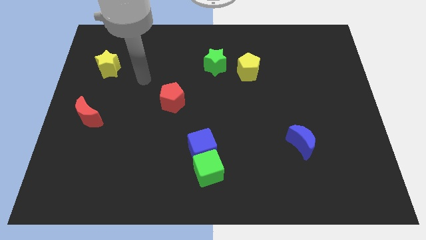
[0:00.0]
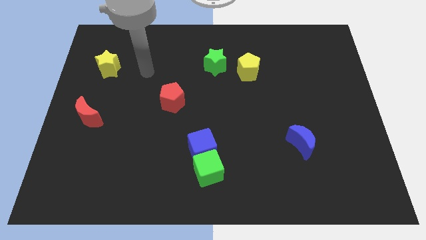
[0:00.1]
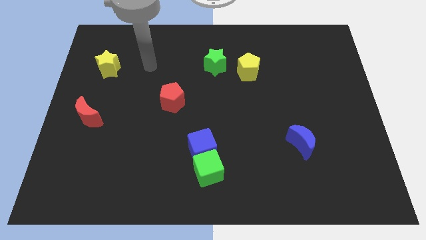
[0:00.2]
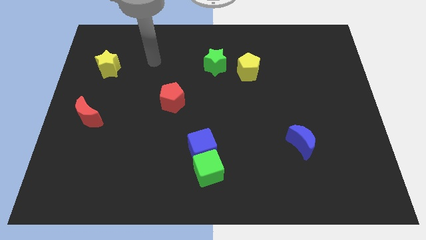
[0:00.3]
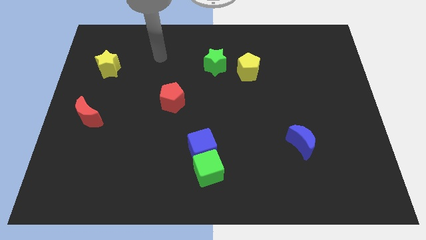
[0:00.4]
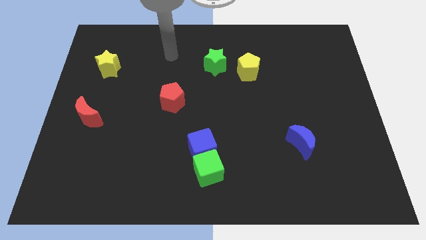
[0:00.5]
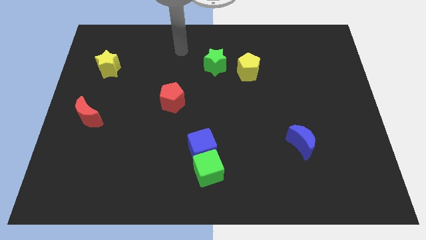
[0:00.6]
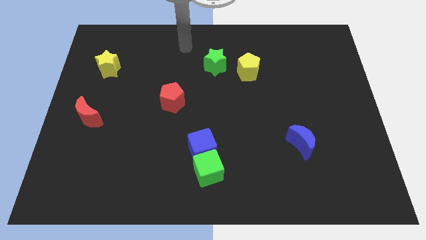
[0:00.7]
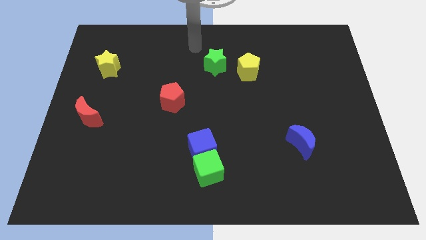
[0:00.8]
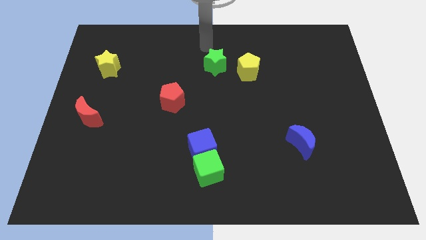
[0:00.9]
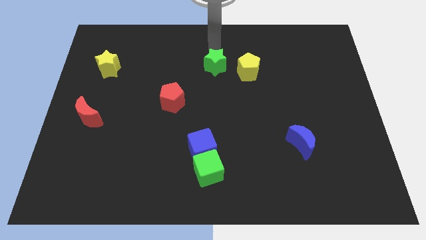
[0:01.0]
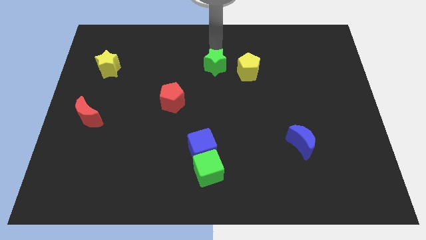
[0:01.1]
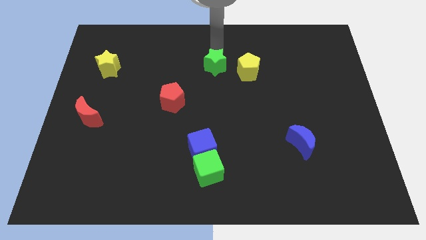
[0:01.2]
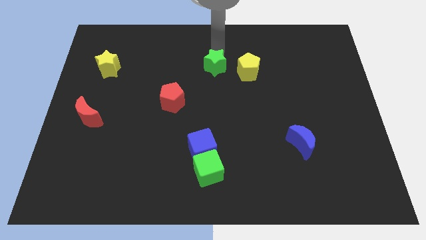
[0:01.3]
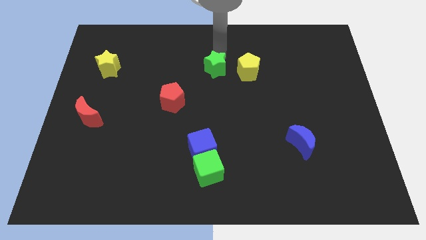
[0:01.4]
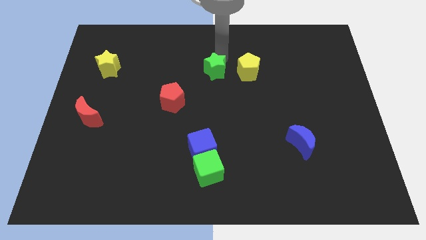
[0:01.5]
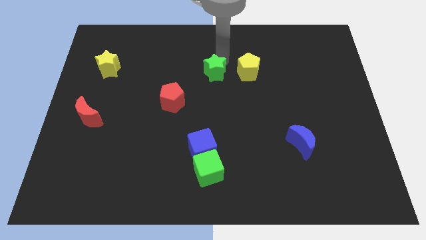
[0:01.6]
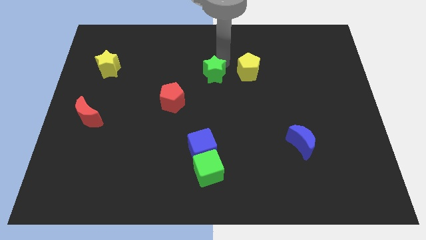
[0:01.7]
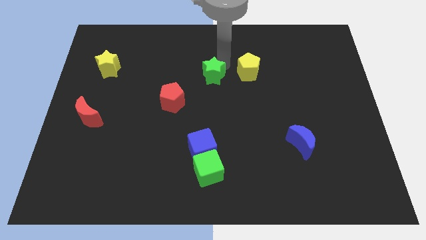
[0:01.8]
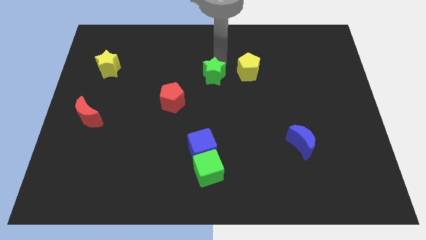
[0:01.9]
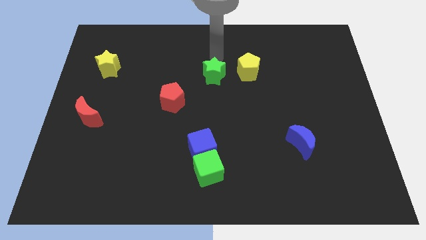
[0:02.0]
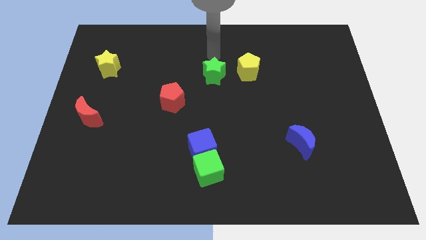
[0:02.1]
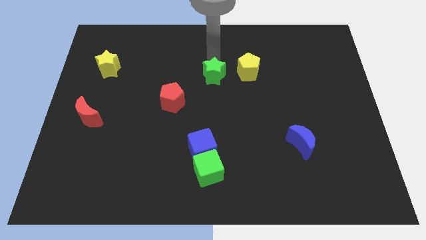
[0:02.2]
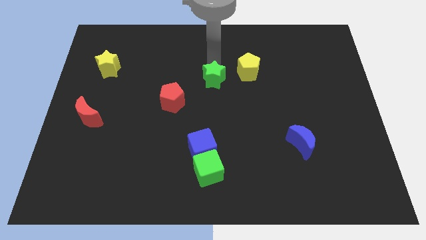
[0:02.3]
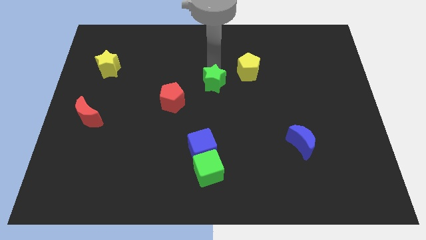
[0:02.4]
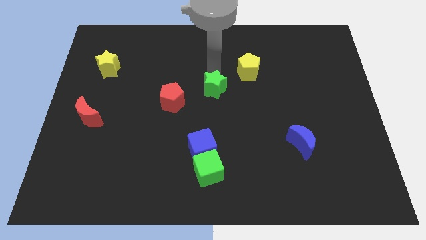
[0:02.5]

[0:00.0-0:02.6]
push the green star a little downwards

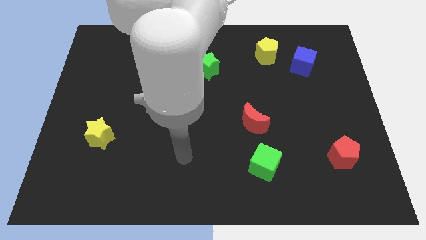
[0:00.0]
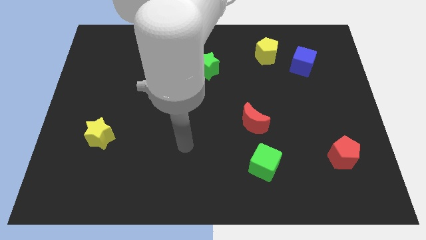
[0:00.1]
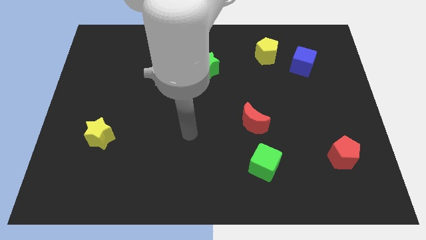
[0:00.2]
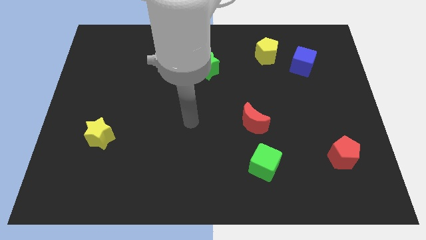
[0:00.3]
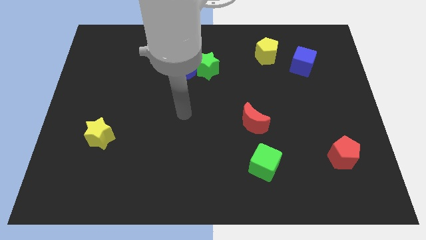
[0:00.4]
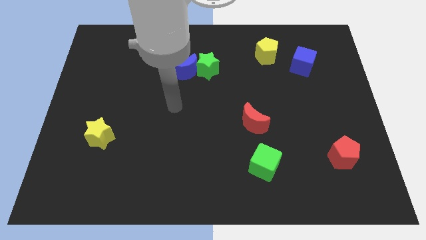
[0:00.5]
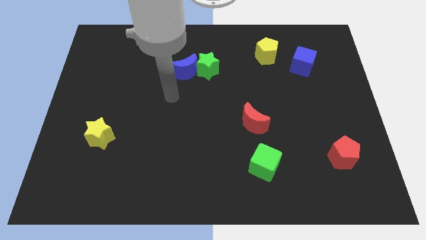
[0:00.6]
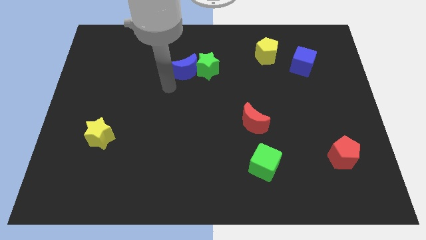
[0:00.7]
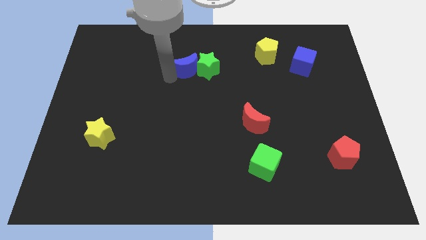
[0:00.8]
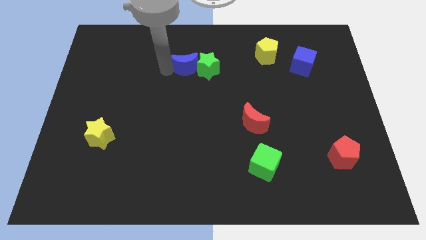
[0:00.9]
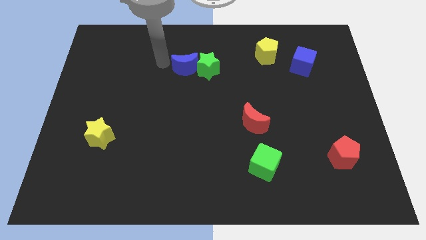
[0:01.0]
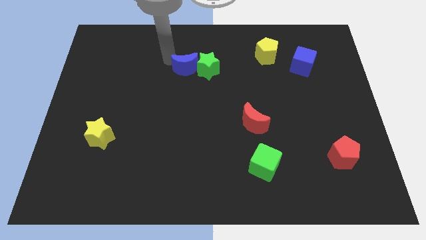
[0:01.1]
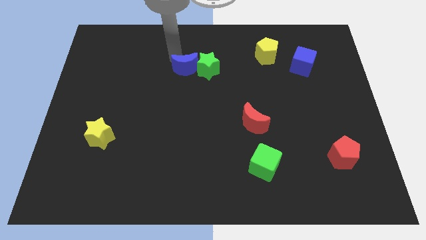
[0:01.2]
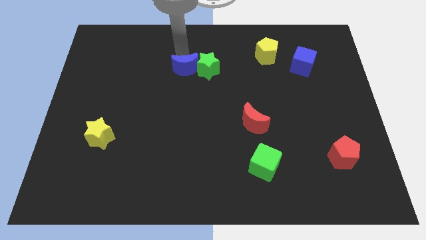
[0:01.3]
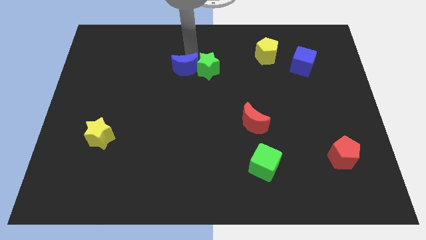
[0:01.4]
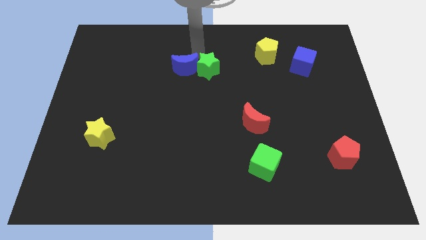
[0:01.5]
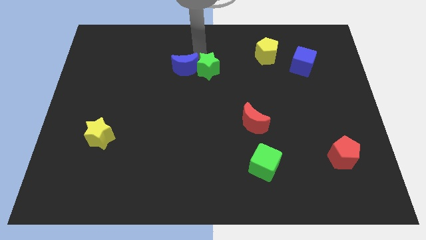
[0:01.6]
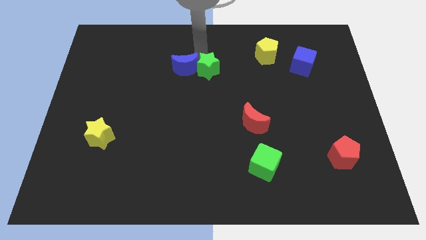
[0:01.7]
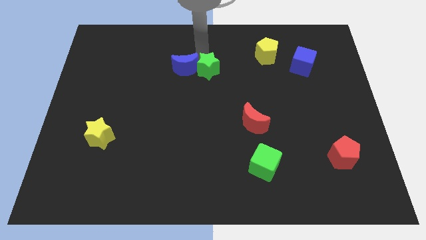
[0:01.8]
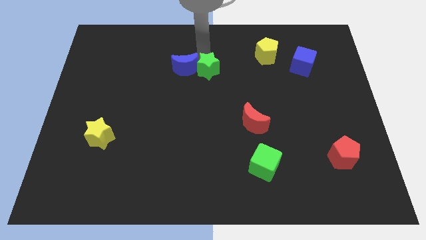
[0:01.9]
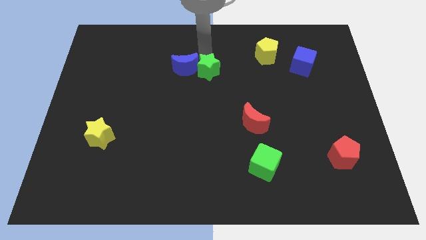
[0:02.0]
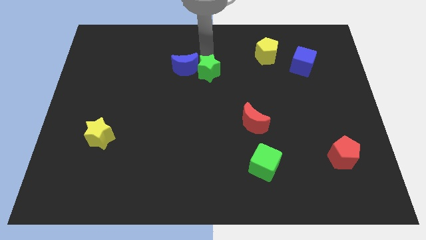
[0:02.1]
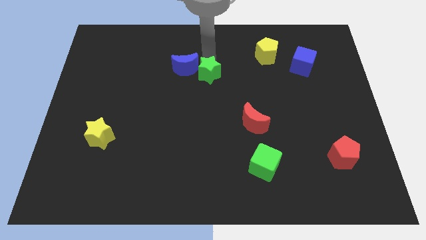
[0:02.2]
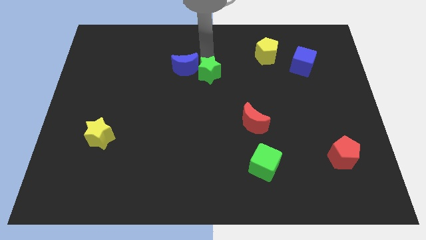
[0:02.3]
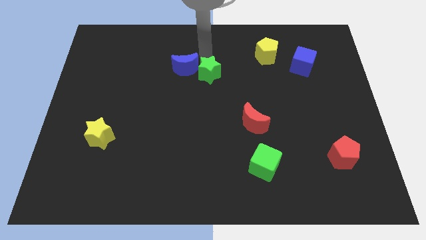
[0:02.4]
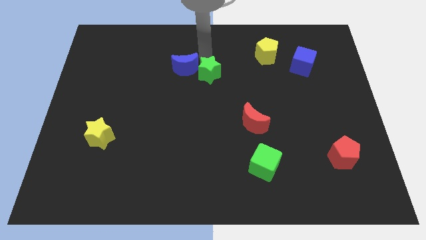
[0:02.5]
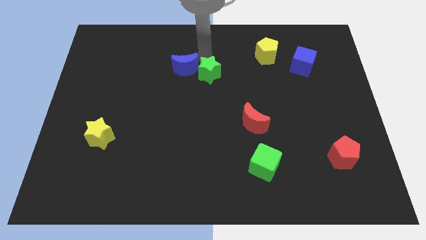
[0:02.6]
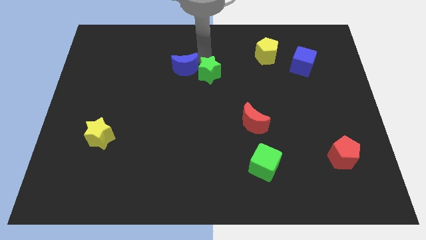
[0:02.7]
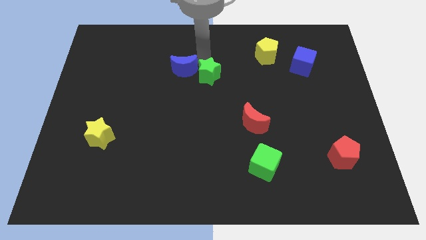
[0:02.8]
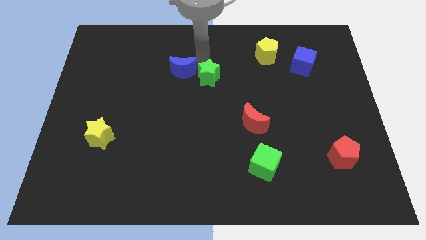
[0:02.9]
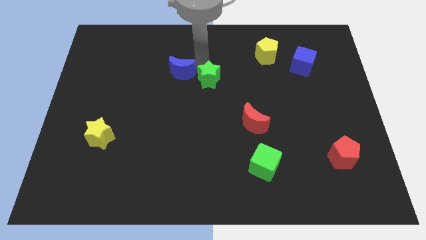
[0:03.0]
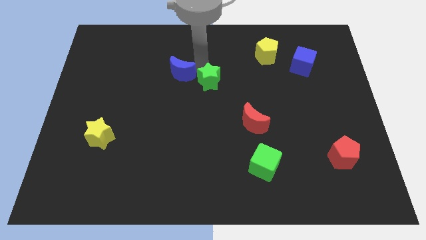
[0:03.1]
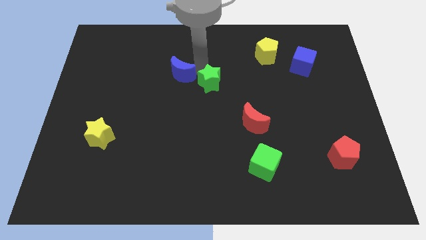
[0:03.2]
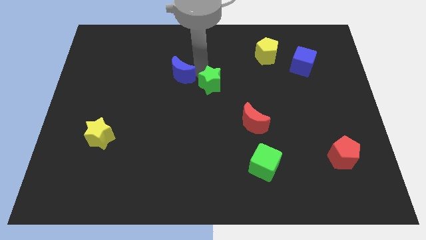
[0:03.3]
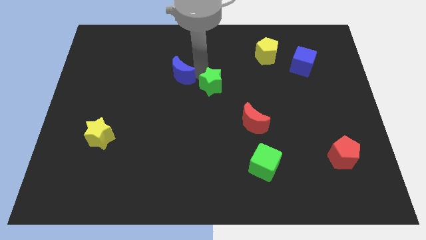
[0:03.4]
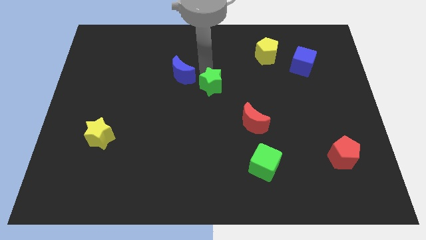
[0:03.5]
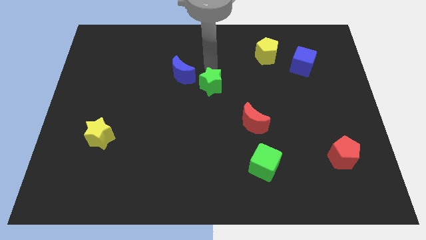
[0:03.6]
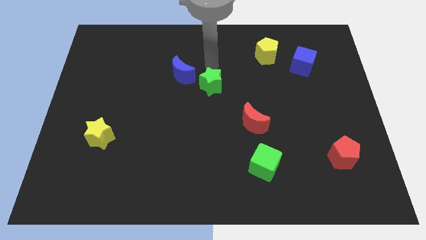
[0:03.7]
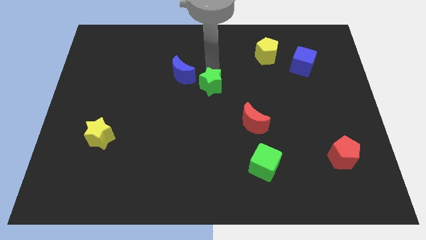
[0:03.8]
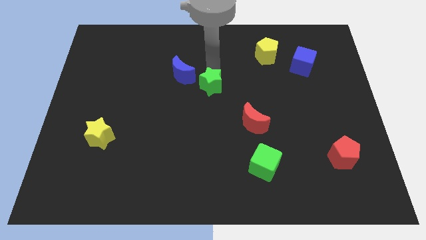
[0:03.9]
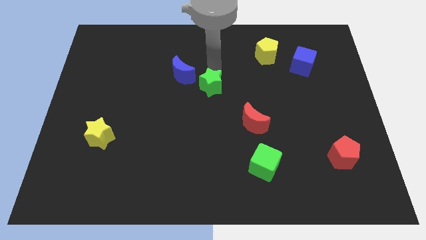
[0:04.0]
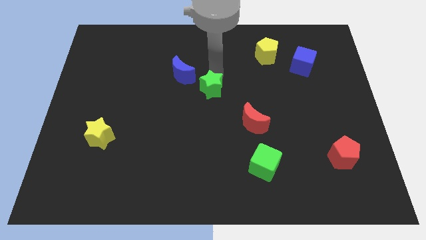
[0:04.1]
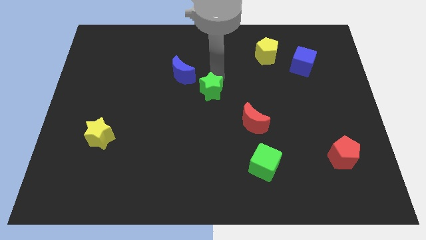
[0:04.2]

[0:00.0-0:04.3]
slightly slide the green star downwards

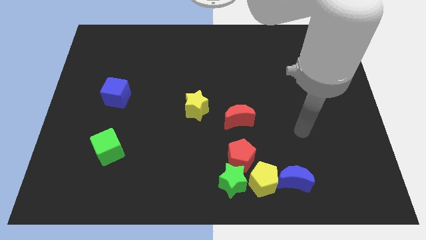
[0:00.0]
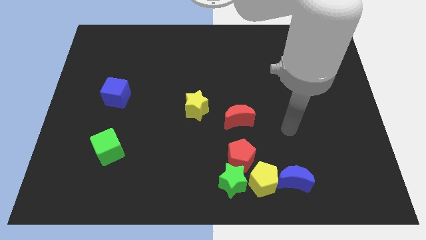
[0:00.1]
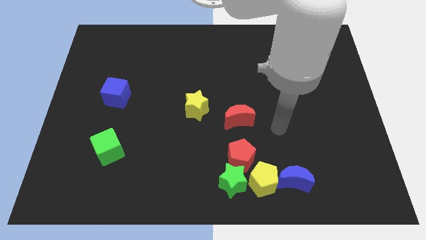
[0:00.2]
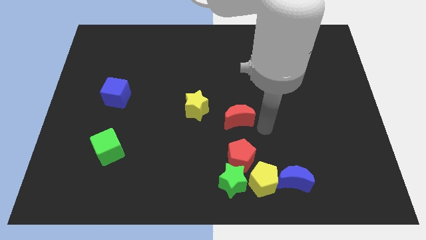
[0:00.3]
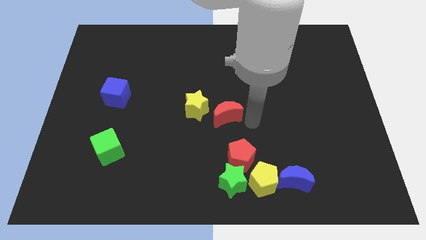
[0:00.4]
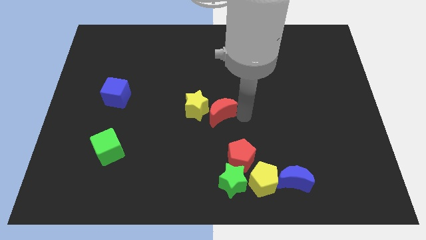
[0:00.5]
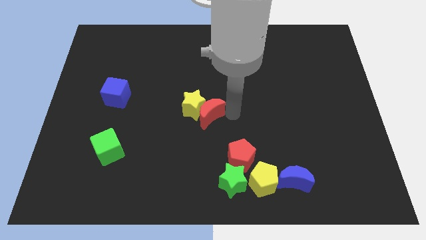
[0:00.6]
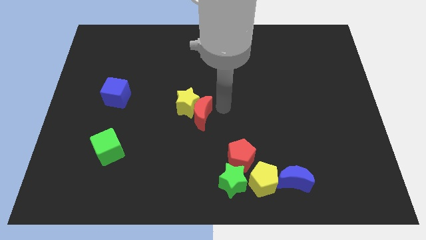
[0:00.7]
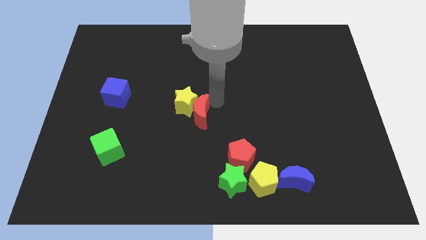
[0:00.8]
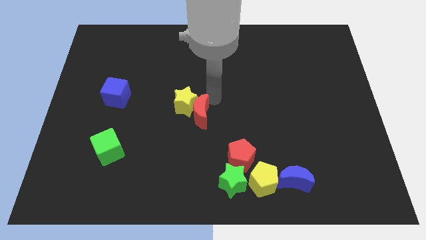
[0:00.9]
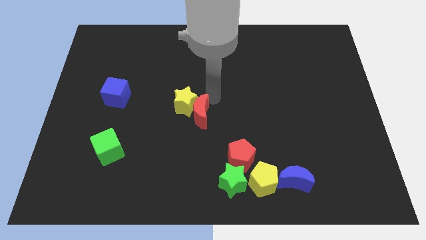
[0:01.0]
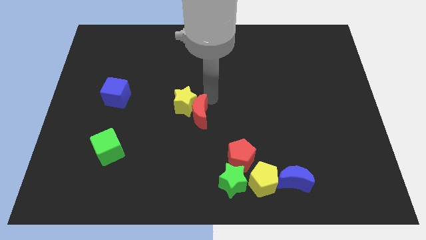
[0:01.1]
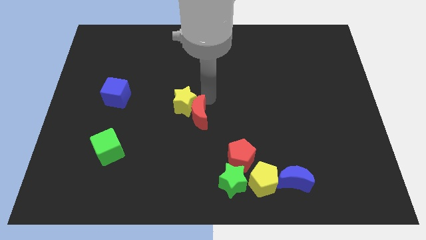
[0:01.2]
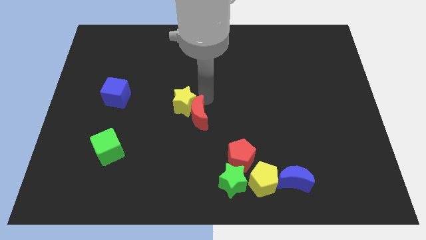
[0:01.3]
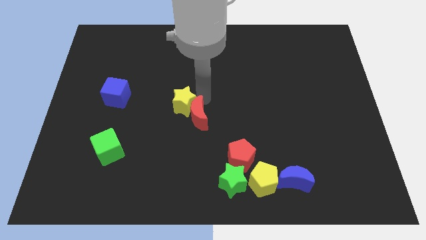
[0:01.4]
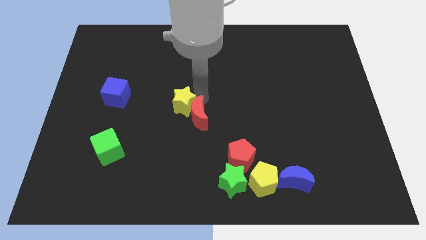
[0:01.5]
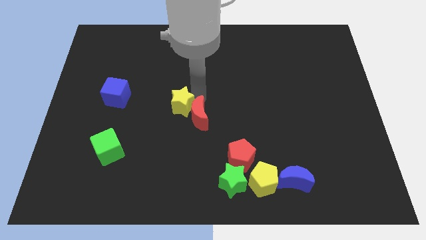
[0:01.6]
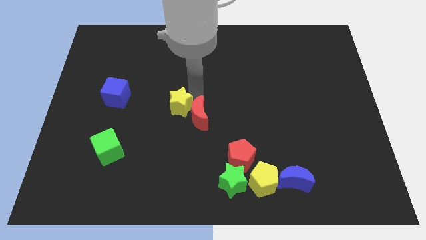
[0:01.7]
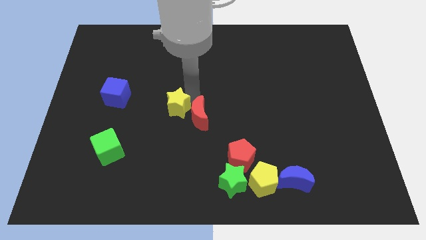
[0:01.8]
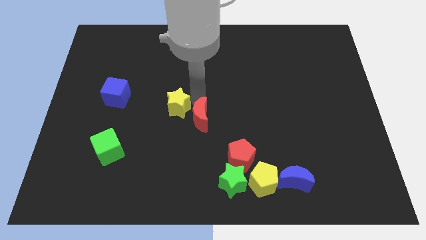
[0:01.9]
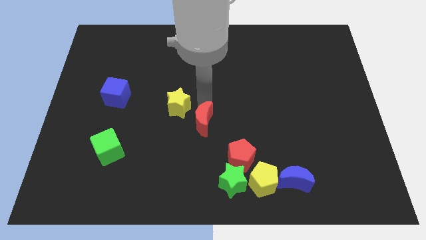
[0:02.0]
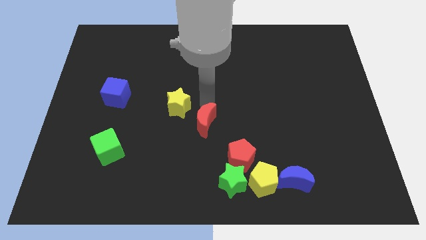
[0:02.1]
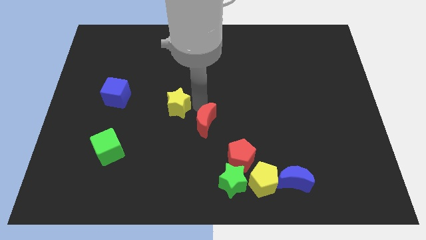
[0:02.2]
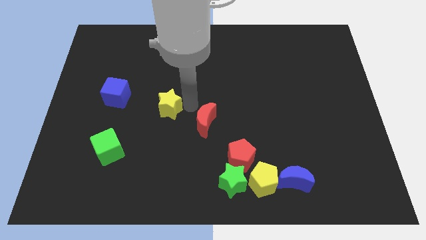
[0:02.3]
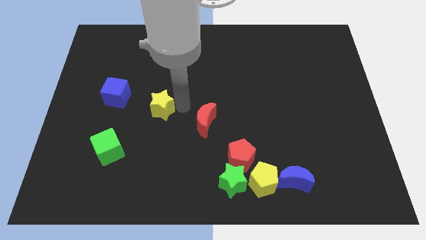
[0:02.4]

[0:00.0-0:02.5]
slide the yellow star left slightly
